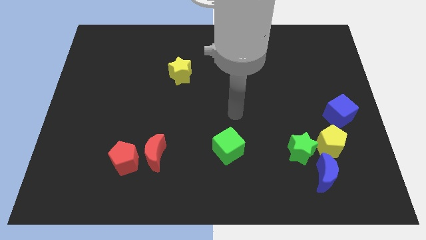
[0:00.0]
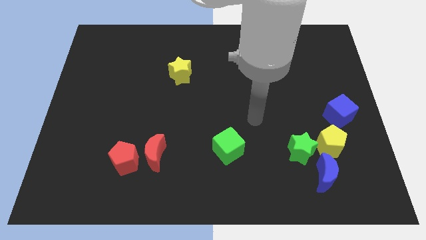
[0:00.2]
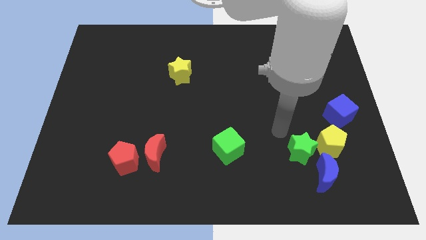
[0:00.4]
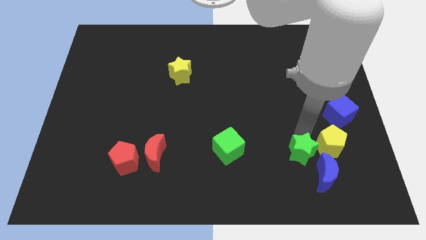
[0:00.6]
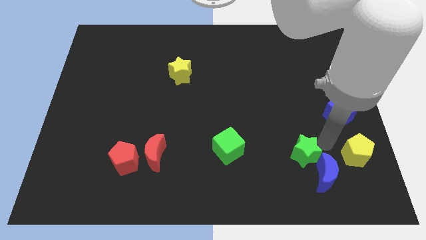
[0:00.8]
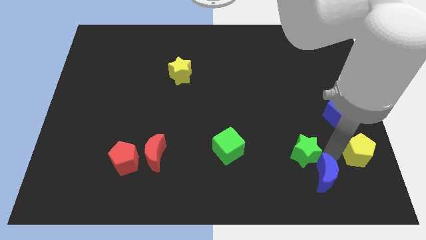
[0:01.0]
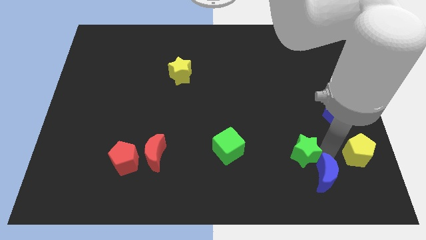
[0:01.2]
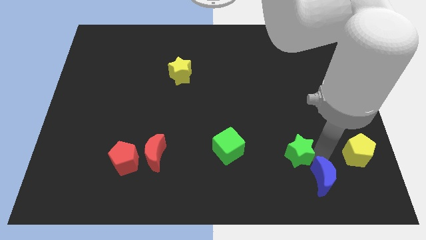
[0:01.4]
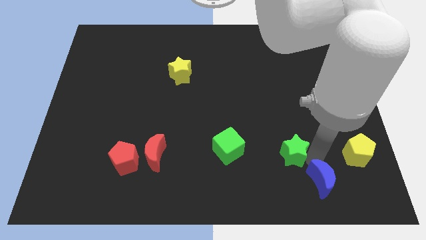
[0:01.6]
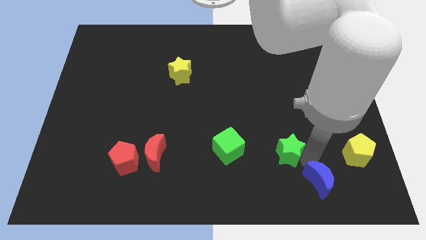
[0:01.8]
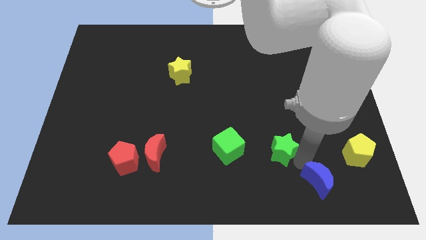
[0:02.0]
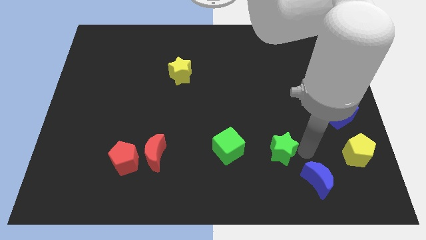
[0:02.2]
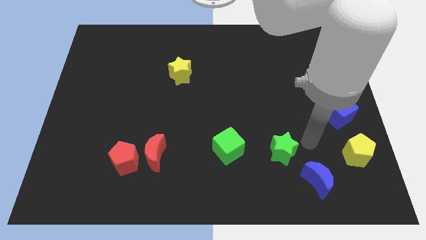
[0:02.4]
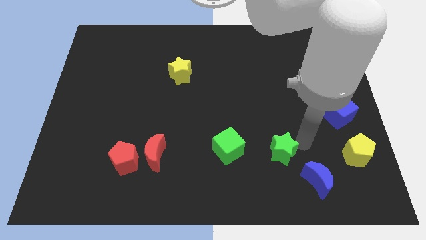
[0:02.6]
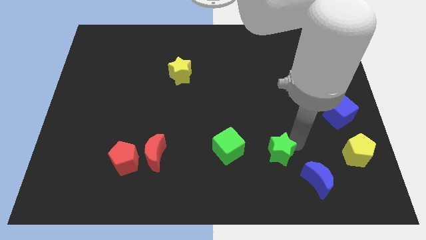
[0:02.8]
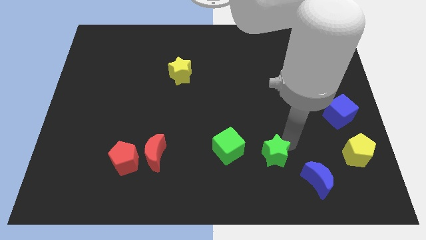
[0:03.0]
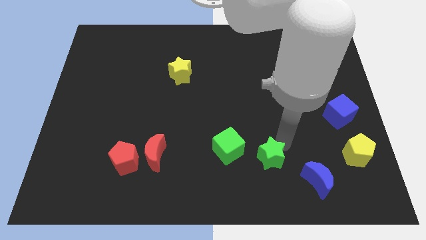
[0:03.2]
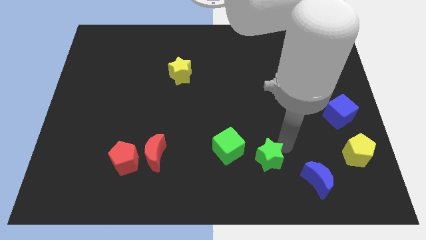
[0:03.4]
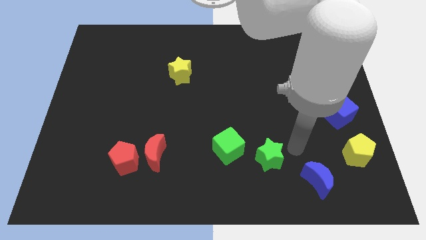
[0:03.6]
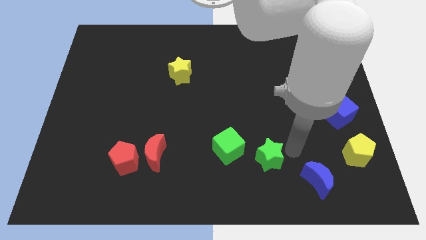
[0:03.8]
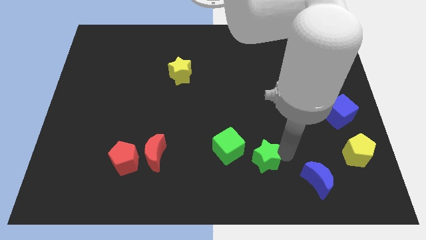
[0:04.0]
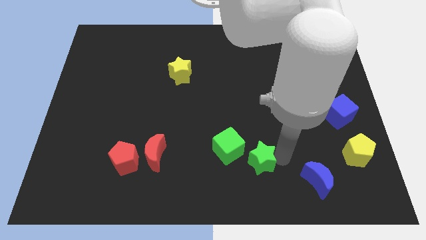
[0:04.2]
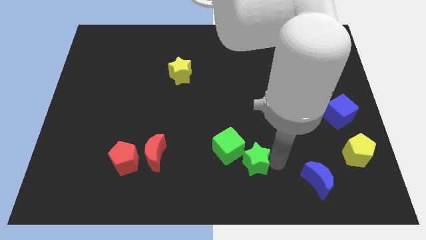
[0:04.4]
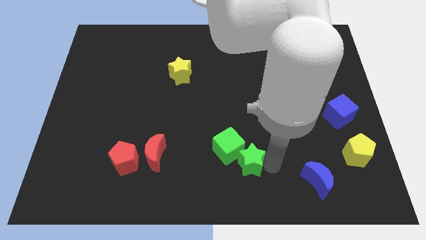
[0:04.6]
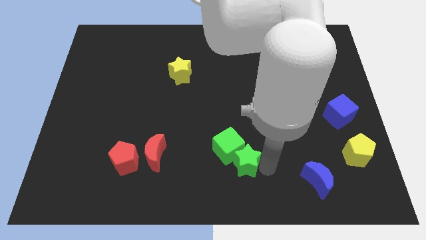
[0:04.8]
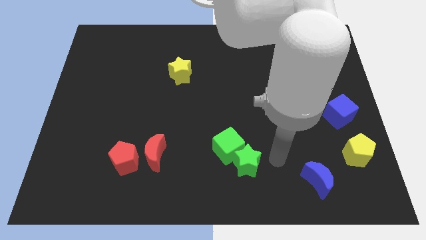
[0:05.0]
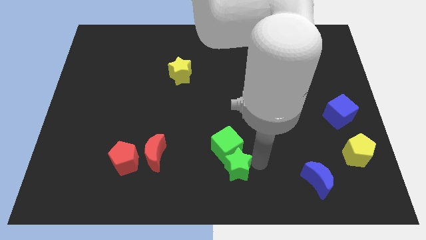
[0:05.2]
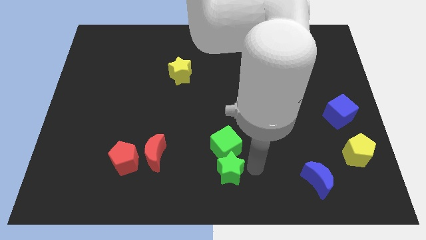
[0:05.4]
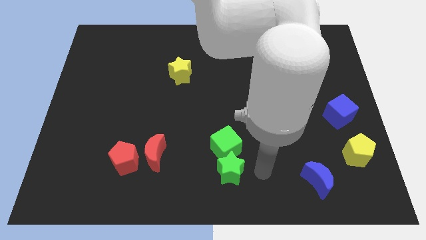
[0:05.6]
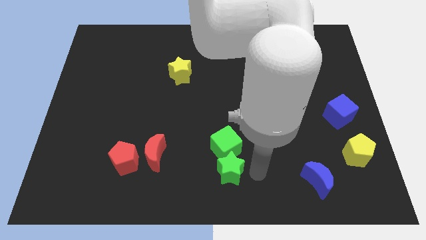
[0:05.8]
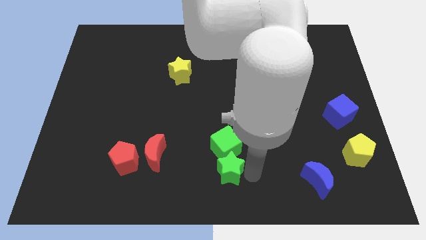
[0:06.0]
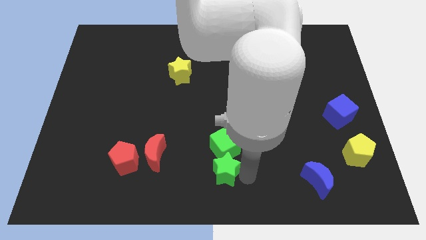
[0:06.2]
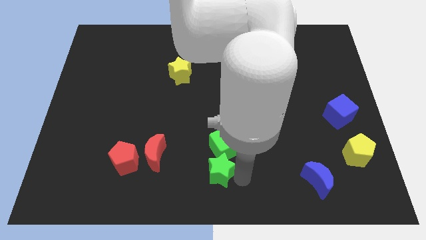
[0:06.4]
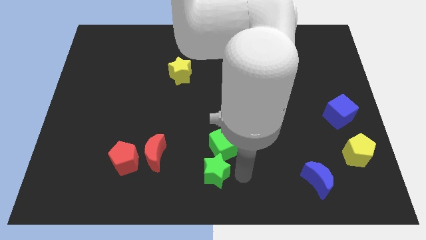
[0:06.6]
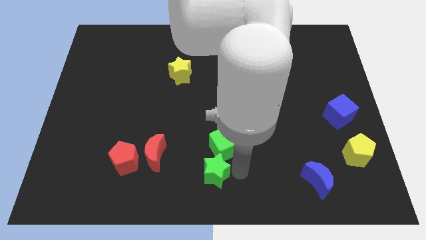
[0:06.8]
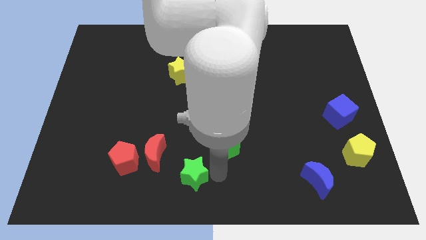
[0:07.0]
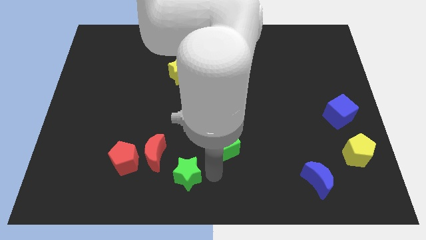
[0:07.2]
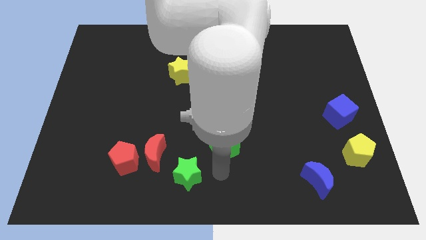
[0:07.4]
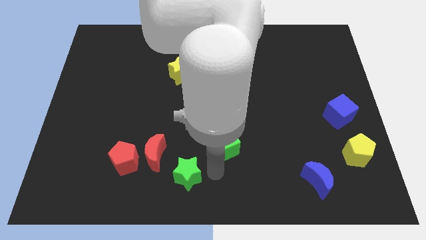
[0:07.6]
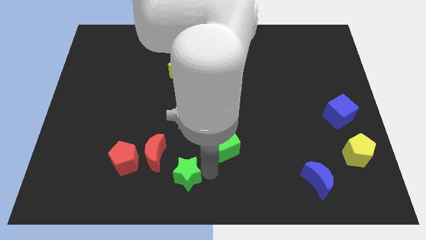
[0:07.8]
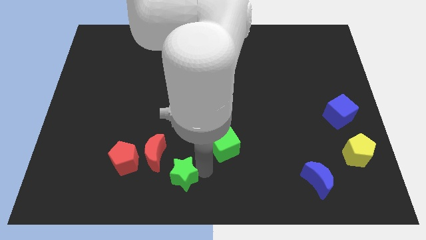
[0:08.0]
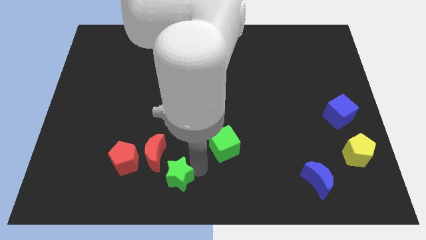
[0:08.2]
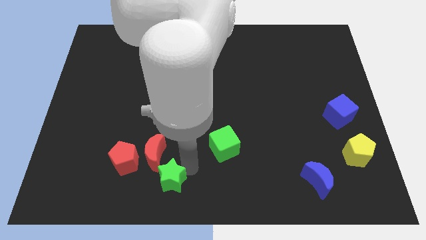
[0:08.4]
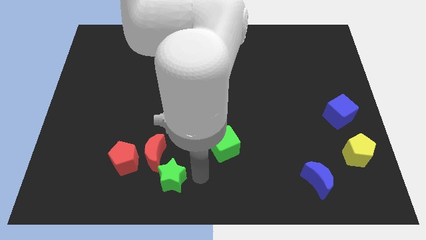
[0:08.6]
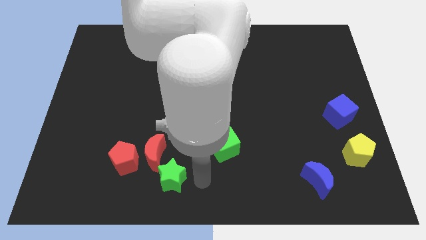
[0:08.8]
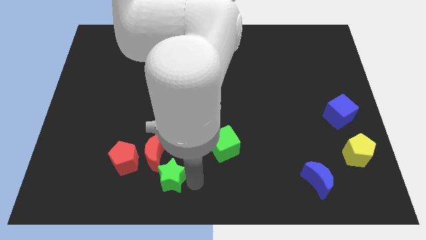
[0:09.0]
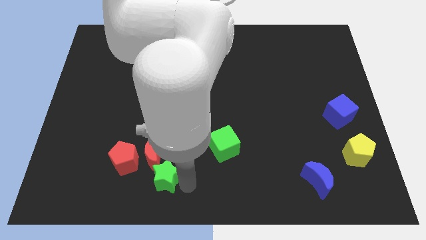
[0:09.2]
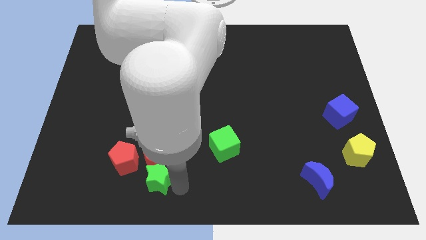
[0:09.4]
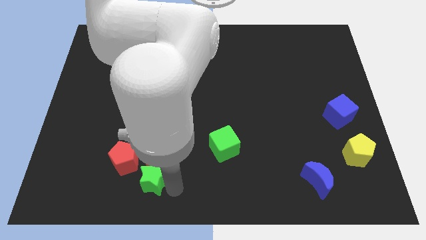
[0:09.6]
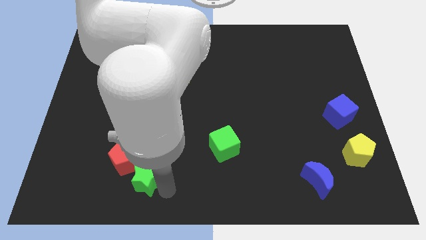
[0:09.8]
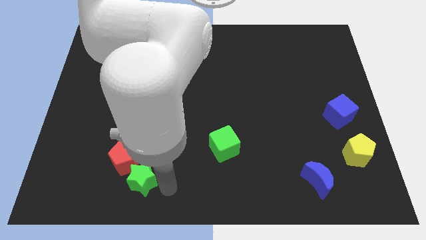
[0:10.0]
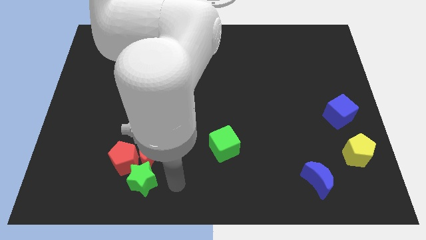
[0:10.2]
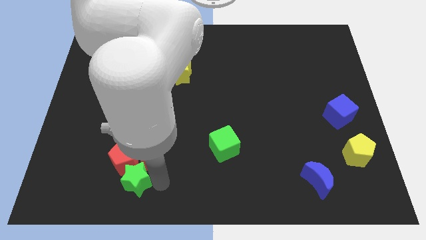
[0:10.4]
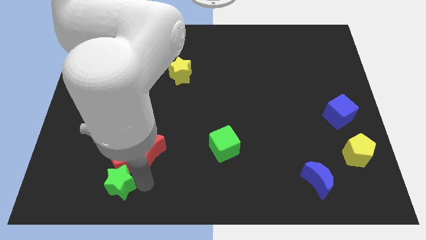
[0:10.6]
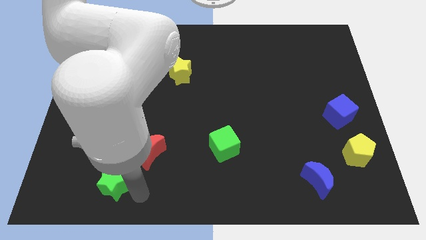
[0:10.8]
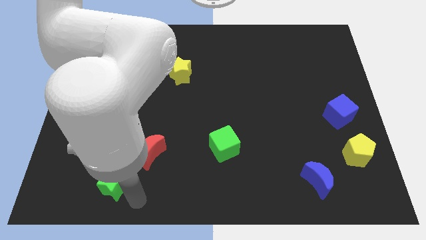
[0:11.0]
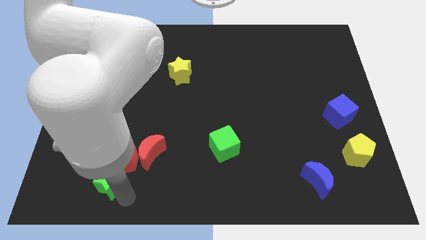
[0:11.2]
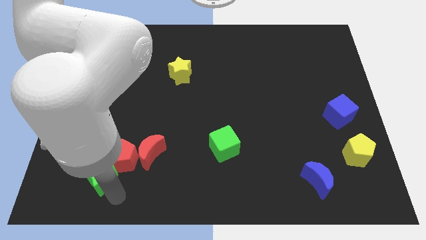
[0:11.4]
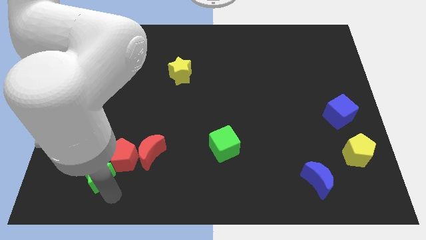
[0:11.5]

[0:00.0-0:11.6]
put the green star to the left side of the red pentagon

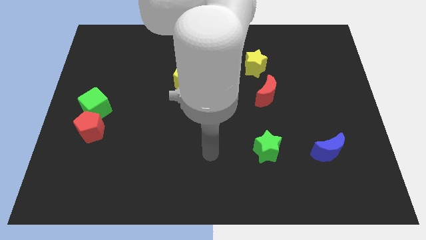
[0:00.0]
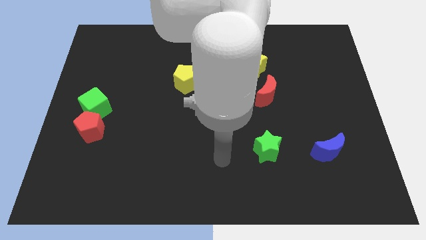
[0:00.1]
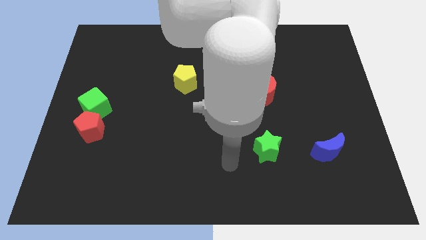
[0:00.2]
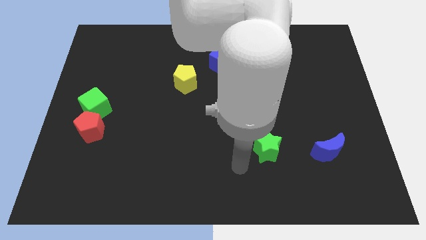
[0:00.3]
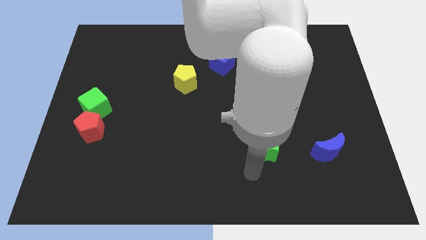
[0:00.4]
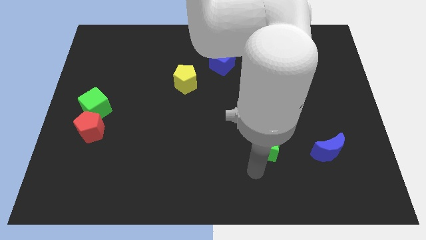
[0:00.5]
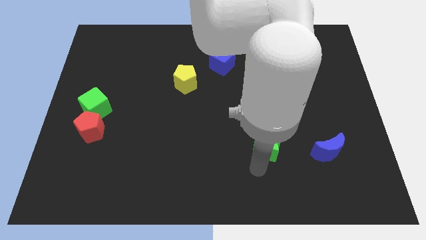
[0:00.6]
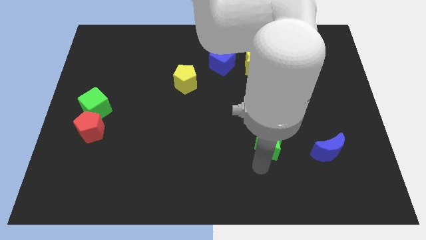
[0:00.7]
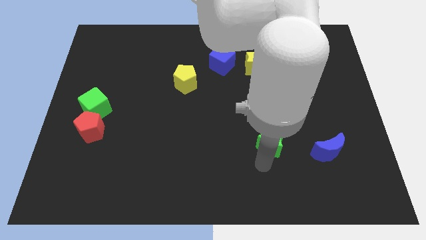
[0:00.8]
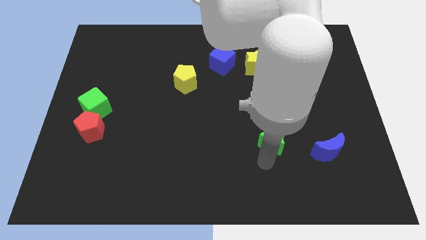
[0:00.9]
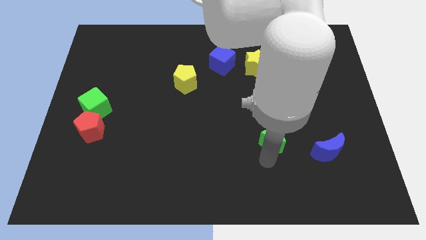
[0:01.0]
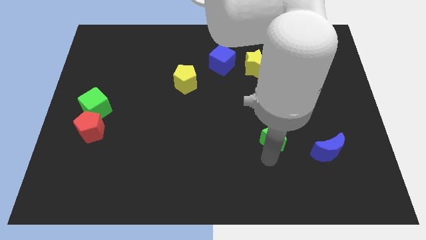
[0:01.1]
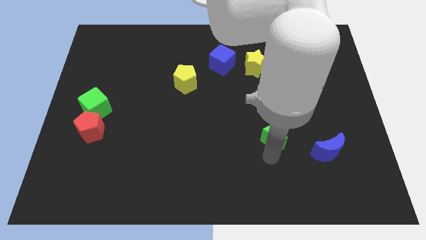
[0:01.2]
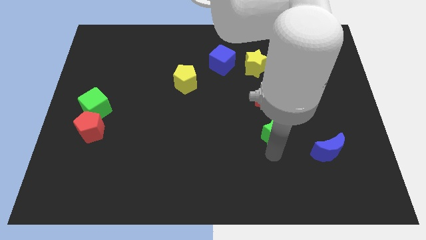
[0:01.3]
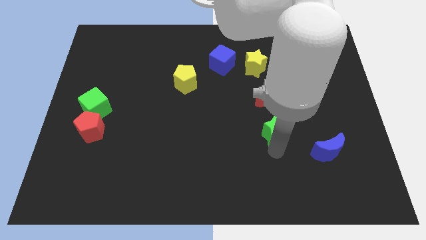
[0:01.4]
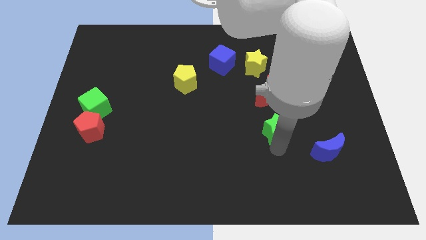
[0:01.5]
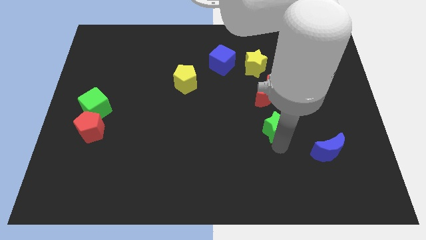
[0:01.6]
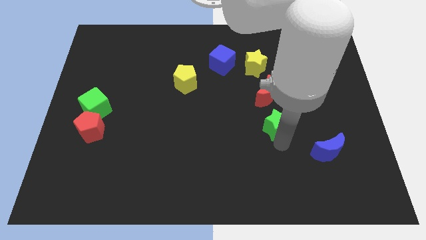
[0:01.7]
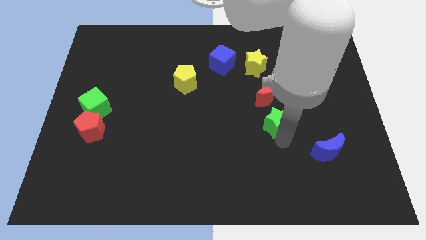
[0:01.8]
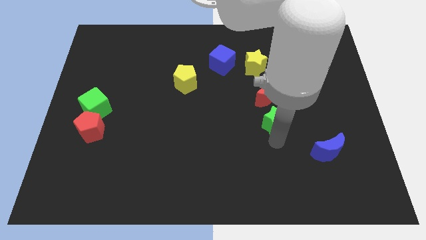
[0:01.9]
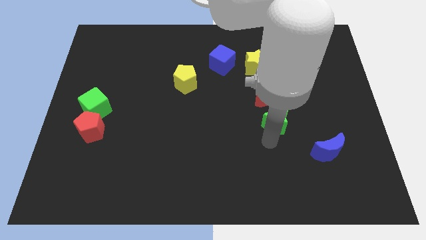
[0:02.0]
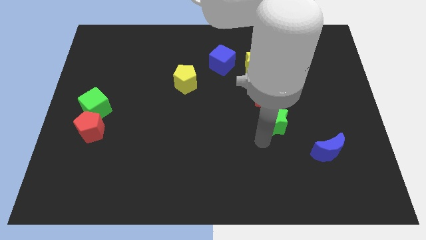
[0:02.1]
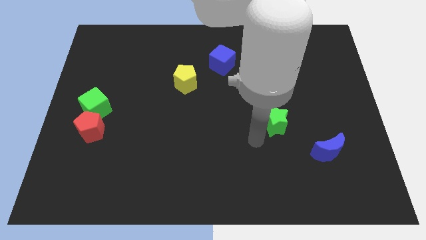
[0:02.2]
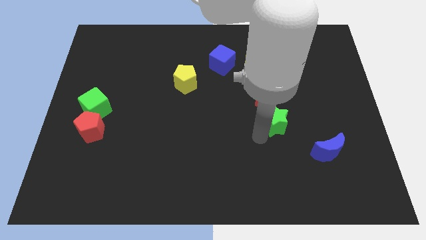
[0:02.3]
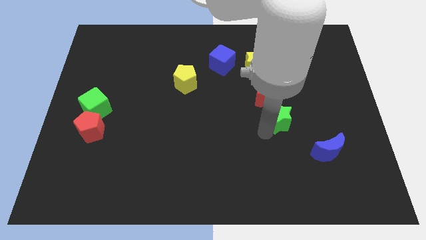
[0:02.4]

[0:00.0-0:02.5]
push the green star to the bottom right of the red moon
